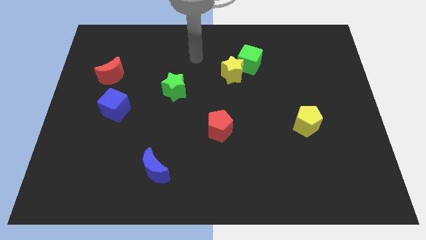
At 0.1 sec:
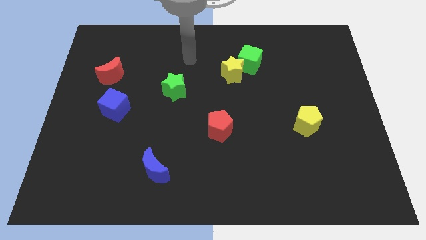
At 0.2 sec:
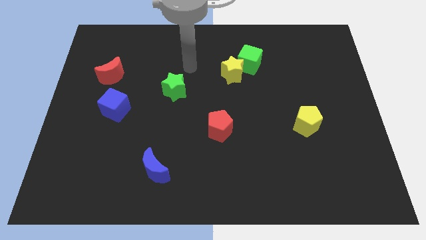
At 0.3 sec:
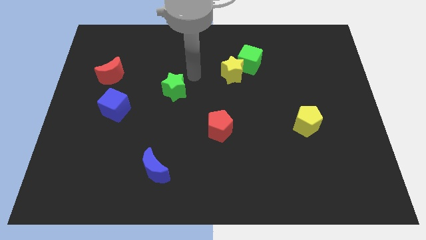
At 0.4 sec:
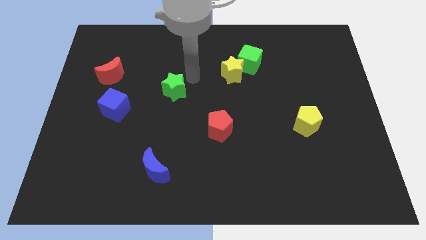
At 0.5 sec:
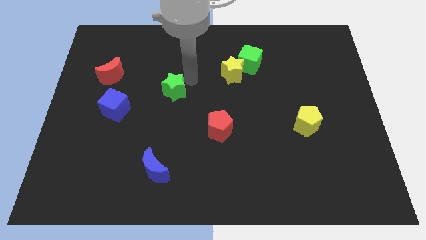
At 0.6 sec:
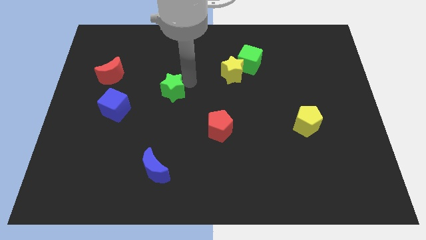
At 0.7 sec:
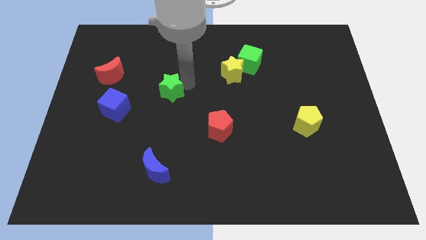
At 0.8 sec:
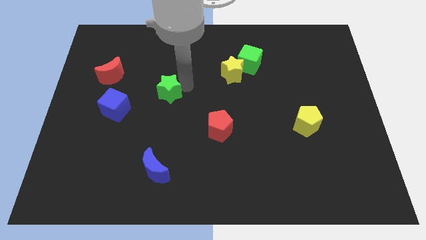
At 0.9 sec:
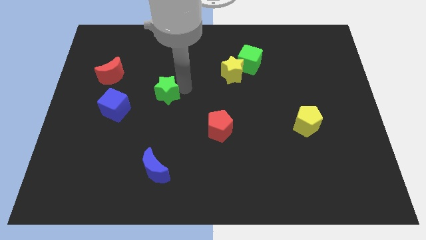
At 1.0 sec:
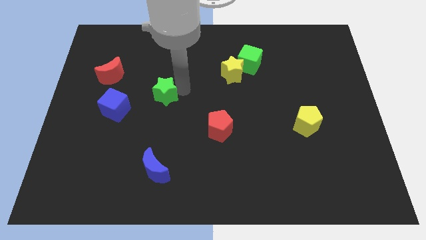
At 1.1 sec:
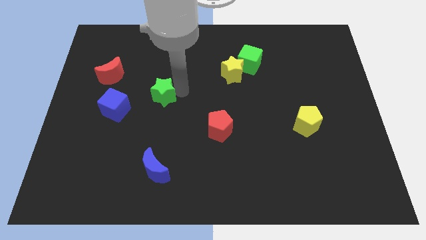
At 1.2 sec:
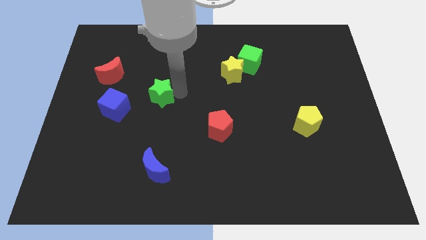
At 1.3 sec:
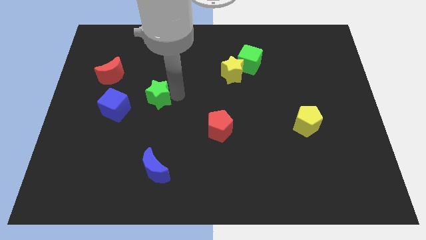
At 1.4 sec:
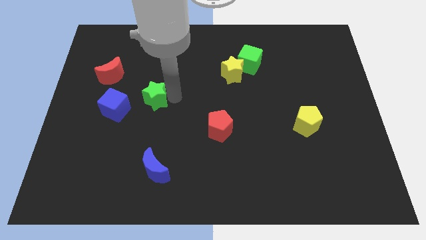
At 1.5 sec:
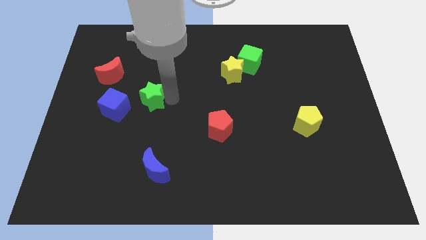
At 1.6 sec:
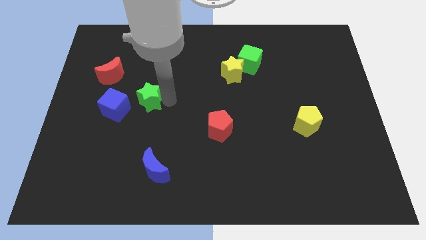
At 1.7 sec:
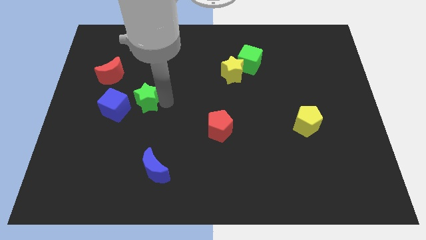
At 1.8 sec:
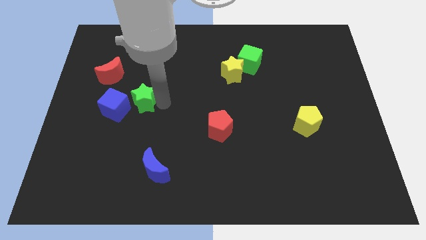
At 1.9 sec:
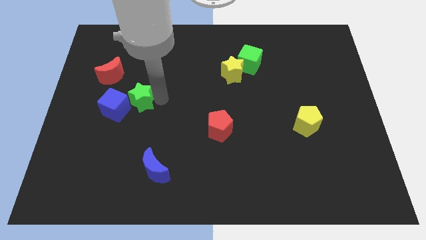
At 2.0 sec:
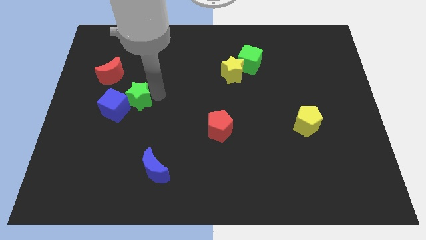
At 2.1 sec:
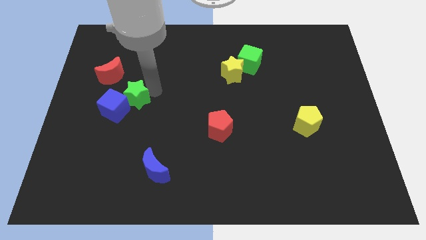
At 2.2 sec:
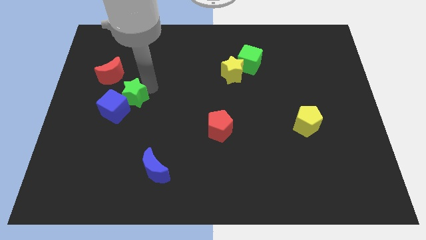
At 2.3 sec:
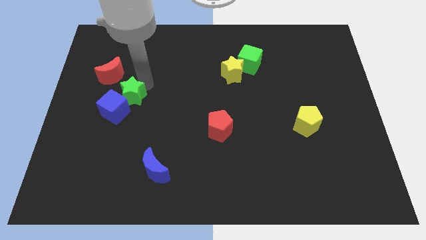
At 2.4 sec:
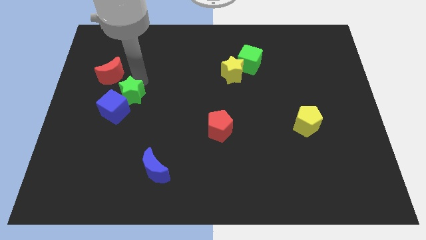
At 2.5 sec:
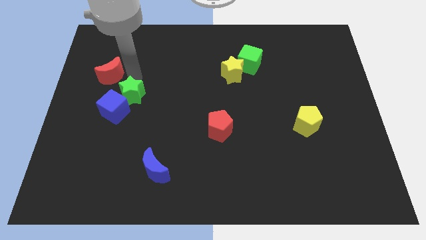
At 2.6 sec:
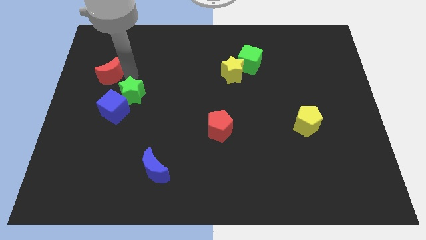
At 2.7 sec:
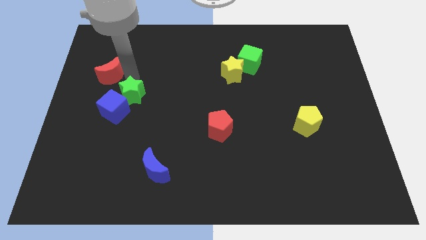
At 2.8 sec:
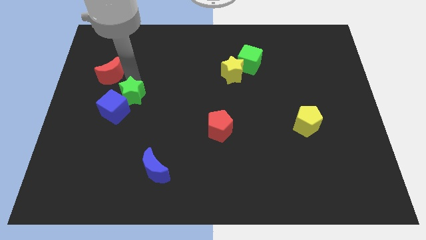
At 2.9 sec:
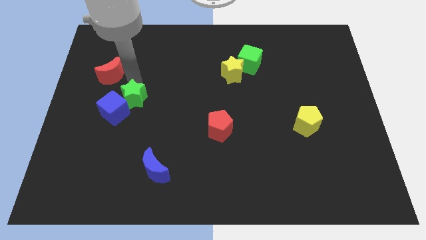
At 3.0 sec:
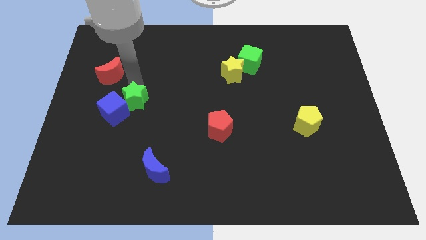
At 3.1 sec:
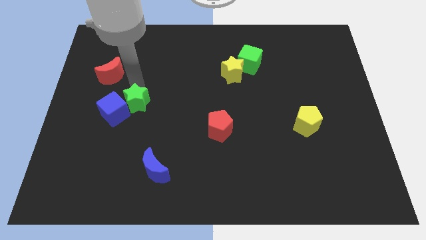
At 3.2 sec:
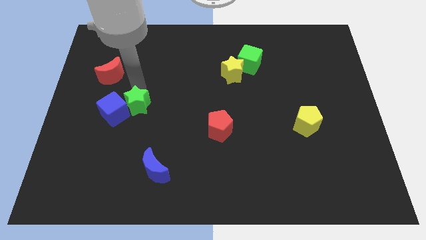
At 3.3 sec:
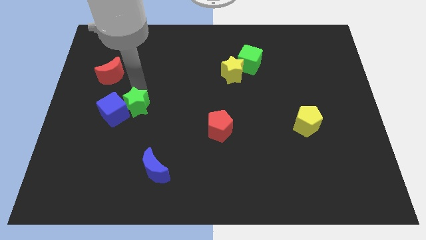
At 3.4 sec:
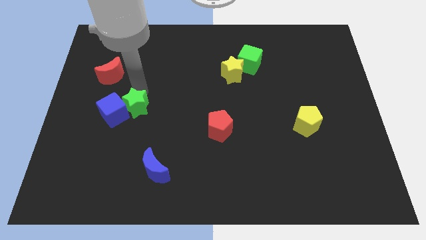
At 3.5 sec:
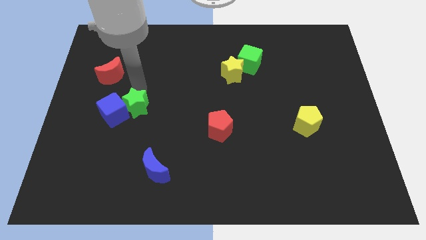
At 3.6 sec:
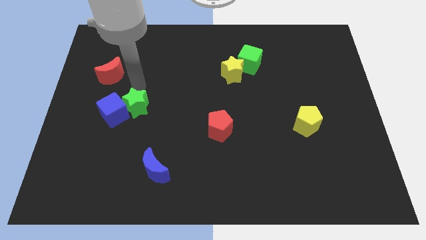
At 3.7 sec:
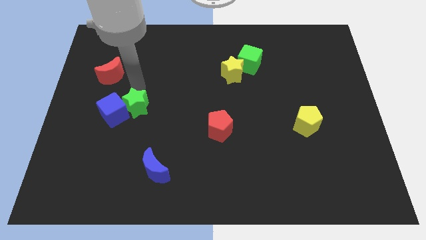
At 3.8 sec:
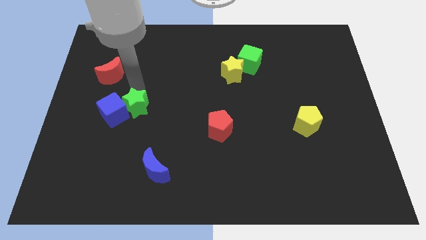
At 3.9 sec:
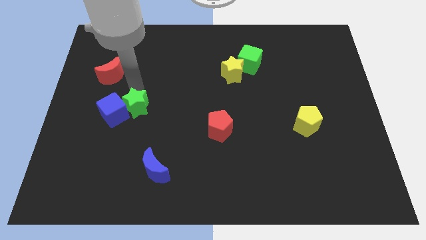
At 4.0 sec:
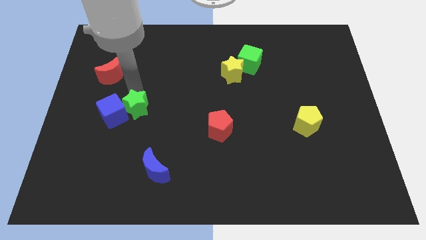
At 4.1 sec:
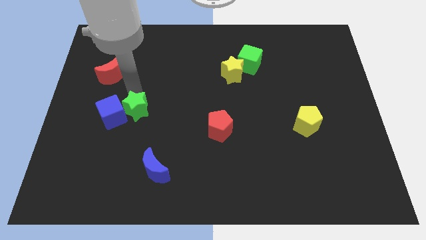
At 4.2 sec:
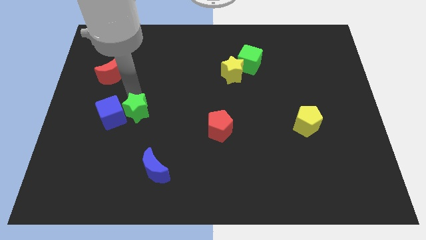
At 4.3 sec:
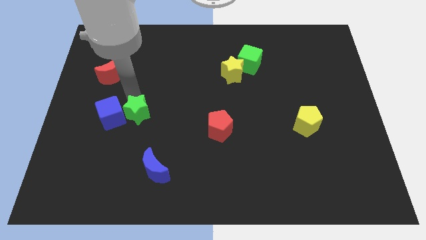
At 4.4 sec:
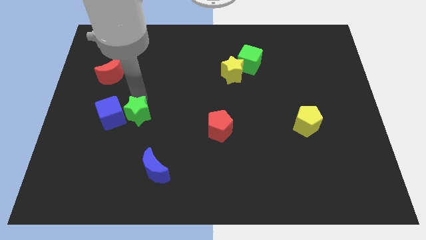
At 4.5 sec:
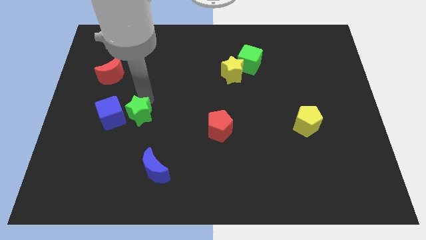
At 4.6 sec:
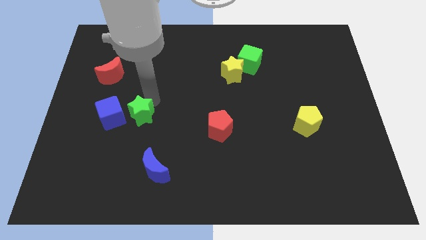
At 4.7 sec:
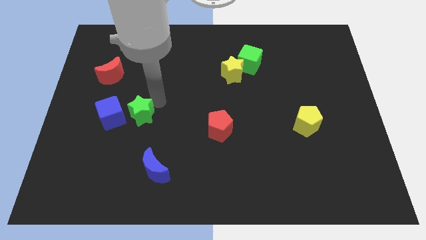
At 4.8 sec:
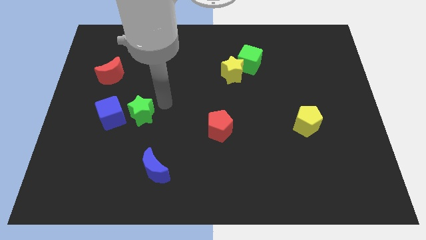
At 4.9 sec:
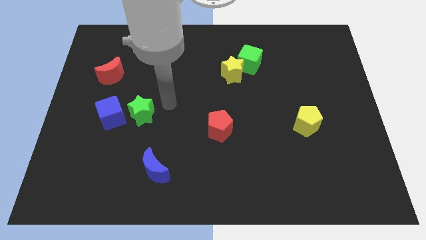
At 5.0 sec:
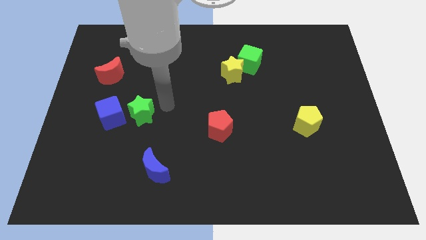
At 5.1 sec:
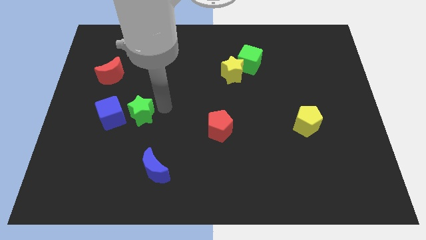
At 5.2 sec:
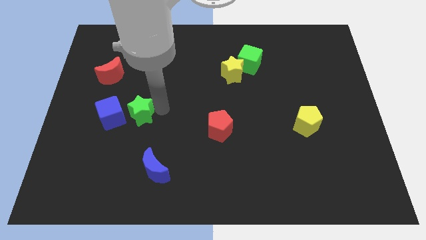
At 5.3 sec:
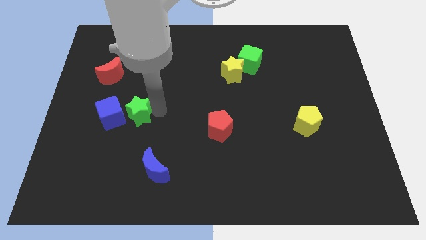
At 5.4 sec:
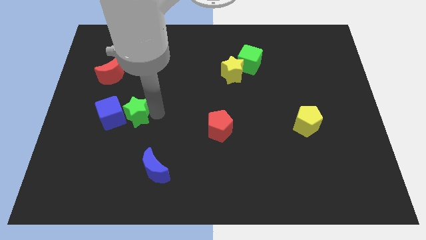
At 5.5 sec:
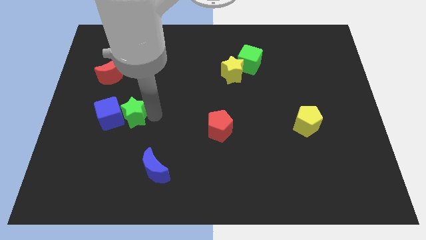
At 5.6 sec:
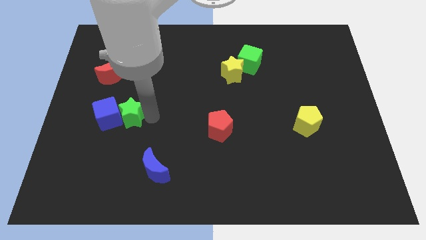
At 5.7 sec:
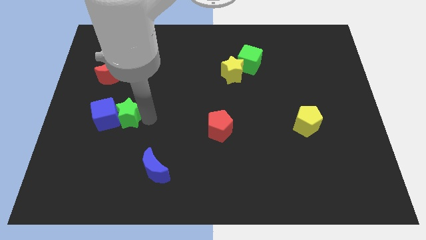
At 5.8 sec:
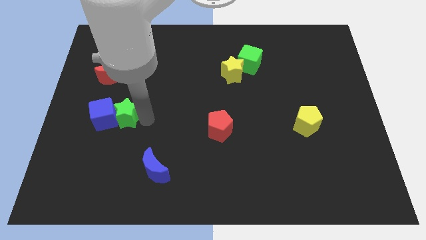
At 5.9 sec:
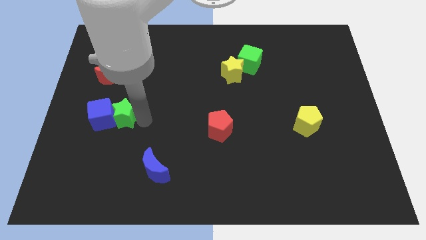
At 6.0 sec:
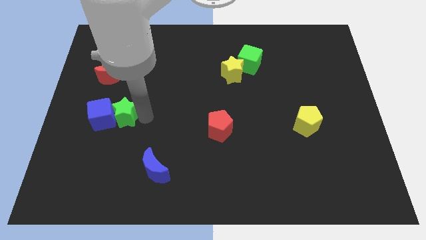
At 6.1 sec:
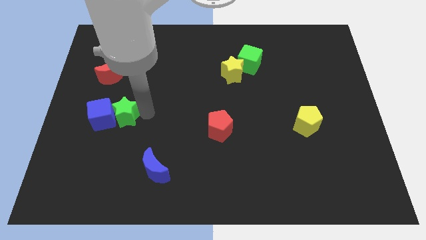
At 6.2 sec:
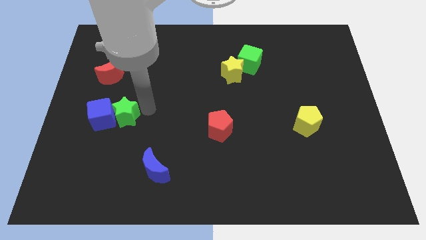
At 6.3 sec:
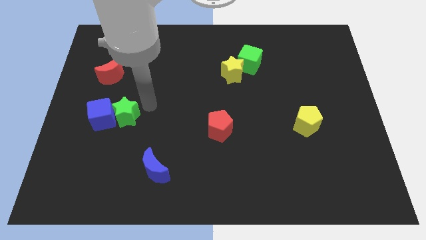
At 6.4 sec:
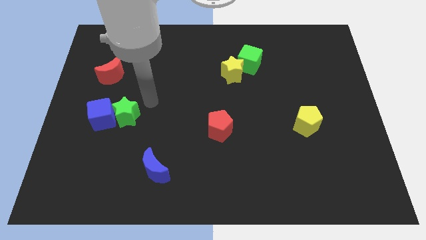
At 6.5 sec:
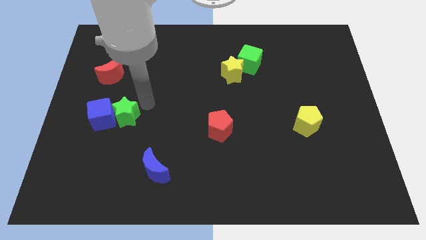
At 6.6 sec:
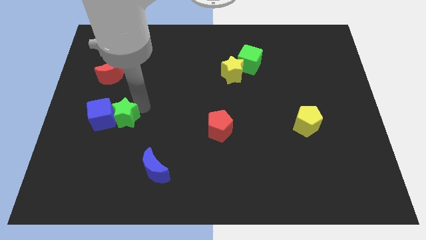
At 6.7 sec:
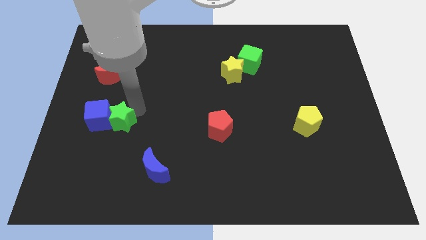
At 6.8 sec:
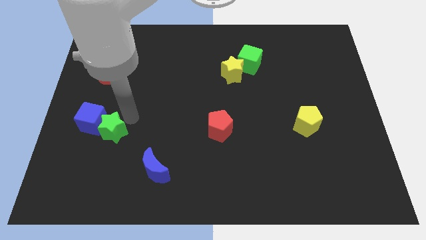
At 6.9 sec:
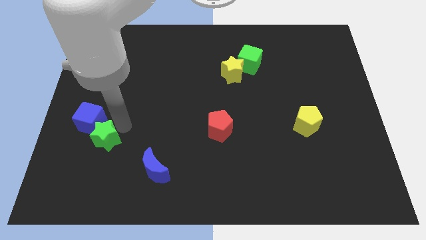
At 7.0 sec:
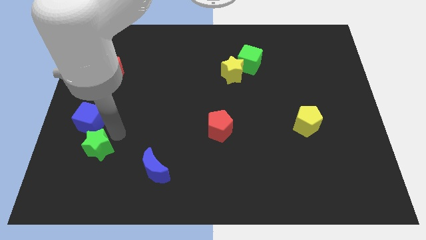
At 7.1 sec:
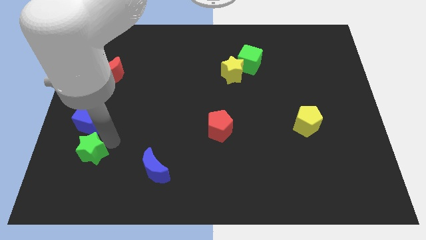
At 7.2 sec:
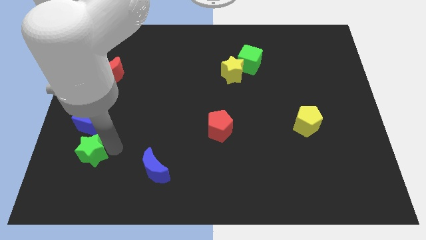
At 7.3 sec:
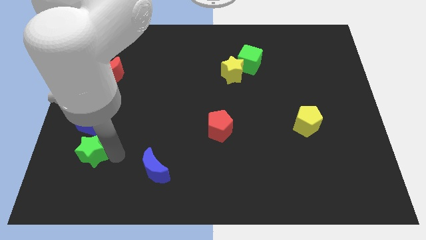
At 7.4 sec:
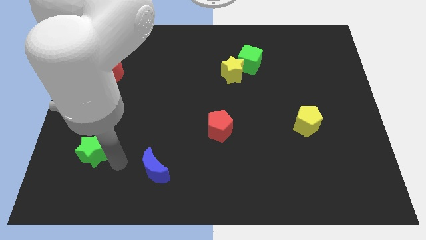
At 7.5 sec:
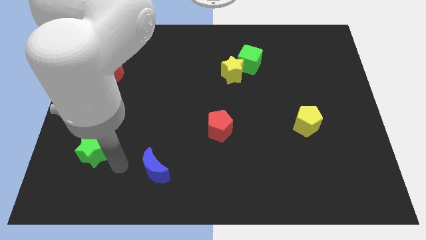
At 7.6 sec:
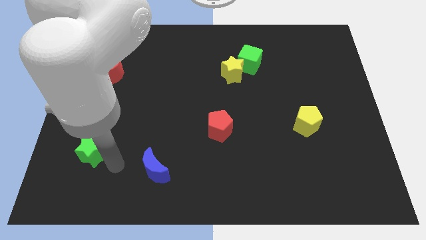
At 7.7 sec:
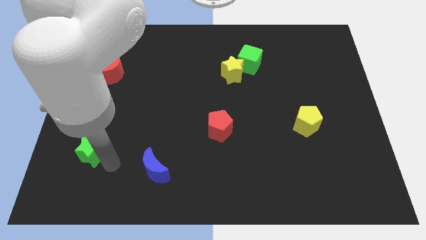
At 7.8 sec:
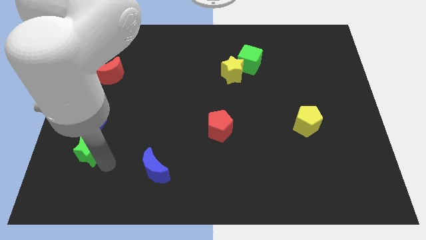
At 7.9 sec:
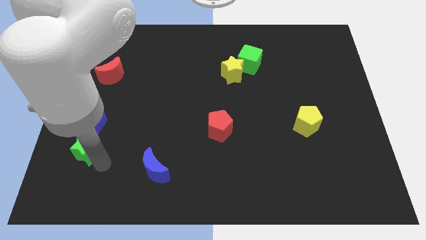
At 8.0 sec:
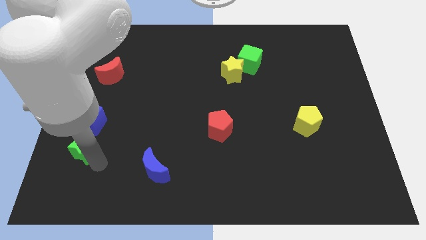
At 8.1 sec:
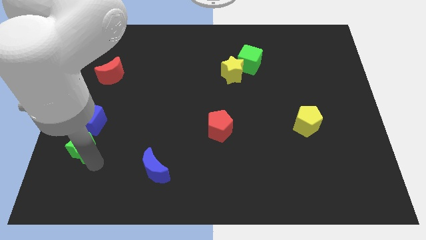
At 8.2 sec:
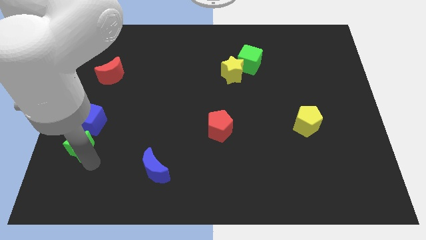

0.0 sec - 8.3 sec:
move the green star diagonally down and to the left of the blue cube
